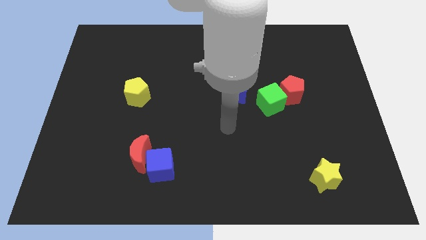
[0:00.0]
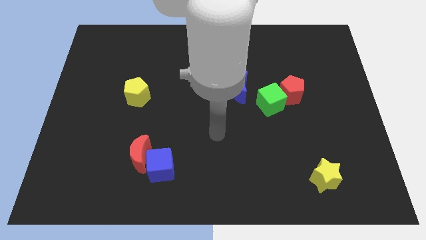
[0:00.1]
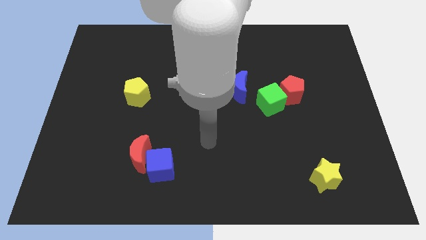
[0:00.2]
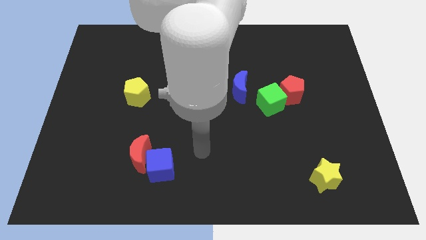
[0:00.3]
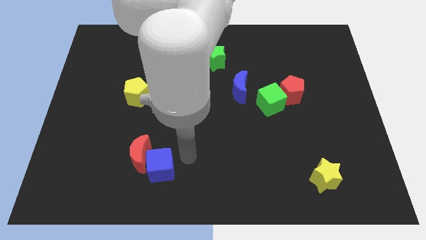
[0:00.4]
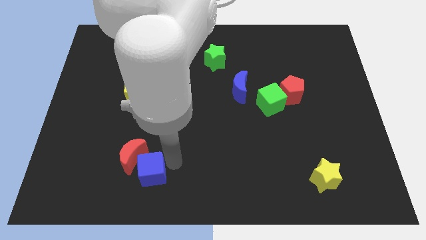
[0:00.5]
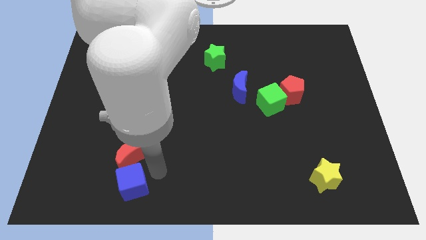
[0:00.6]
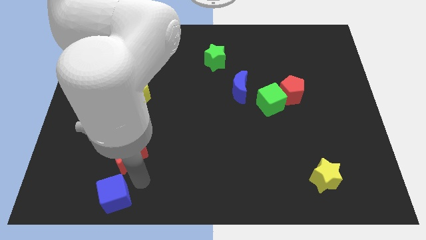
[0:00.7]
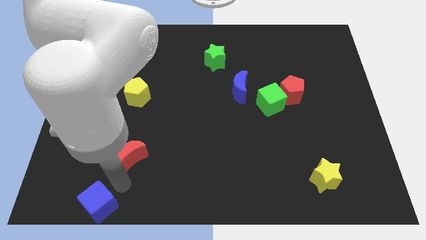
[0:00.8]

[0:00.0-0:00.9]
separate the red moon from the blue cube

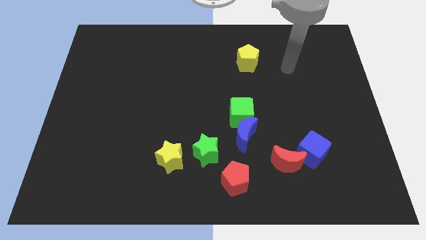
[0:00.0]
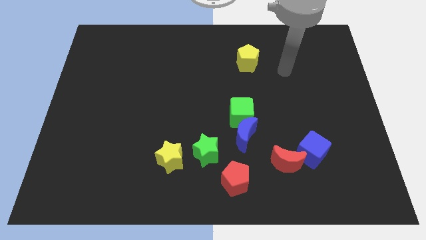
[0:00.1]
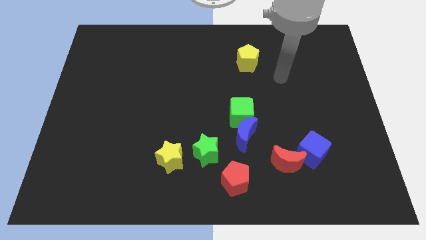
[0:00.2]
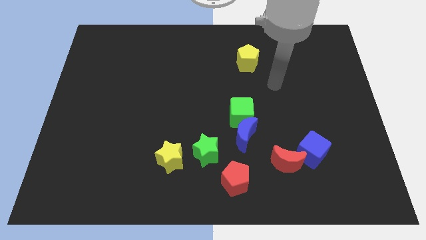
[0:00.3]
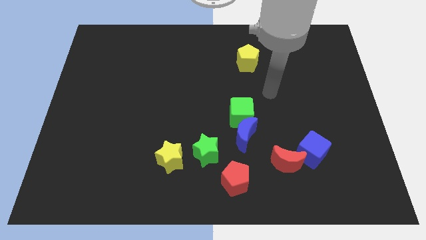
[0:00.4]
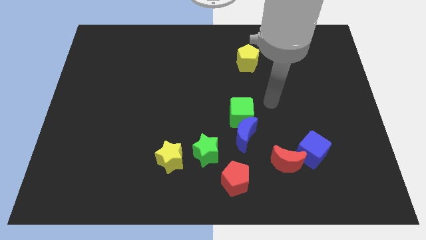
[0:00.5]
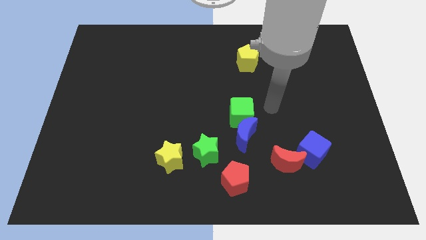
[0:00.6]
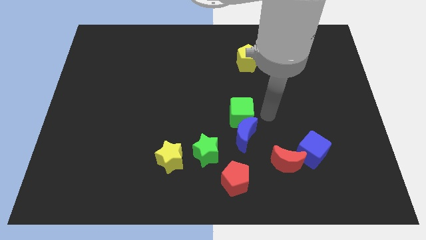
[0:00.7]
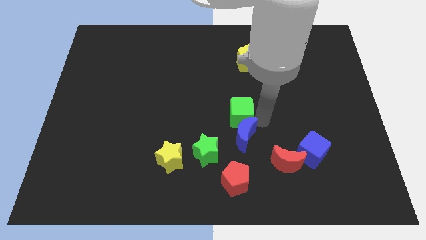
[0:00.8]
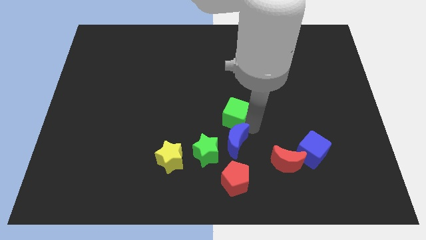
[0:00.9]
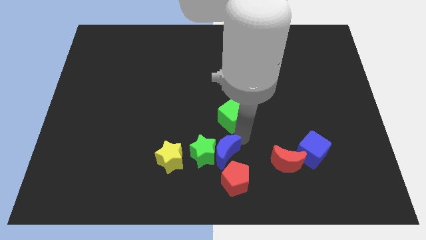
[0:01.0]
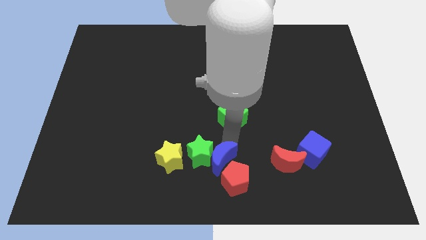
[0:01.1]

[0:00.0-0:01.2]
pull the green cube apart from the blue moon

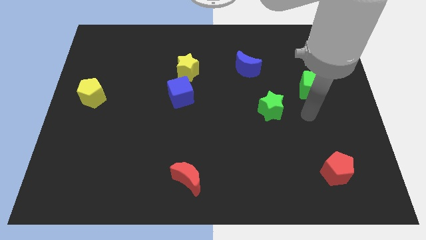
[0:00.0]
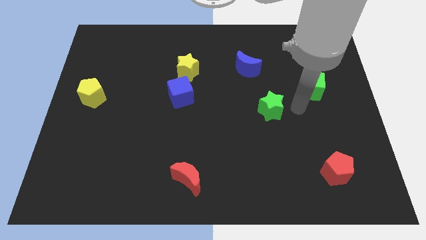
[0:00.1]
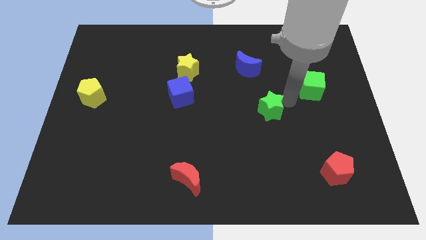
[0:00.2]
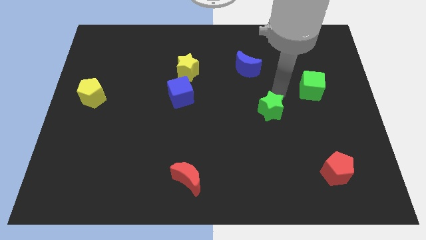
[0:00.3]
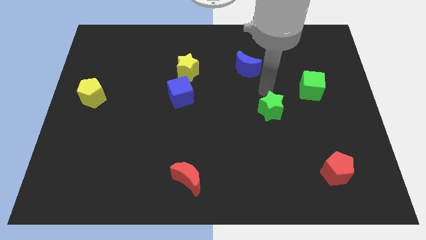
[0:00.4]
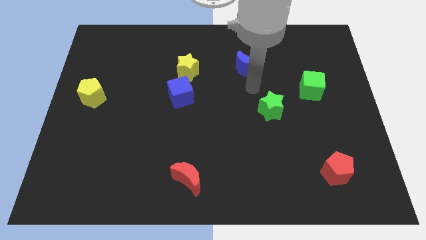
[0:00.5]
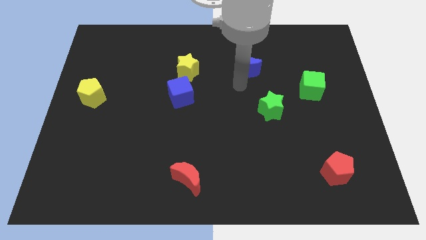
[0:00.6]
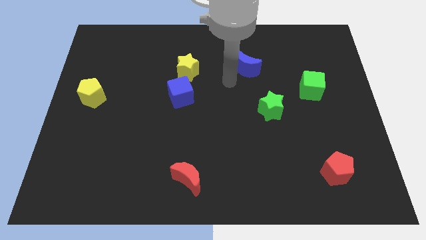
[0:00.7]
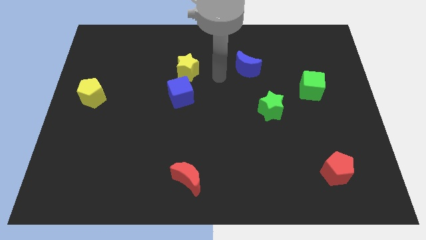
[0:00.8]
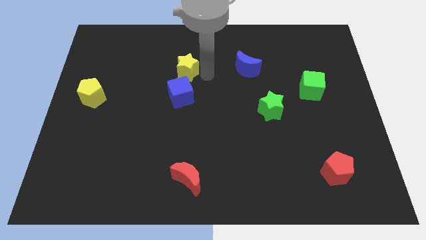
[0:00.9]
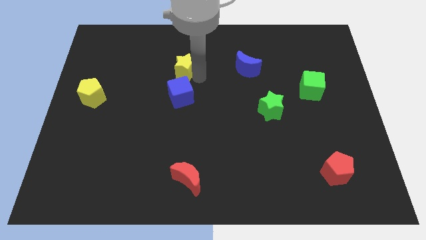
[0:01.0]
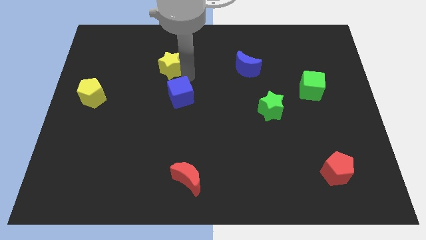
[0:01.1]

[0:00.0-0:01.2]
separate the blue cube from the yellow star

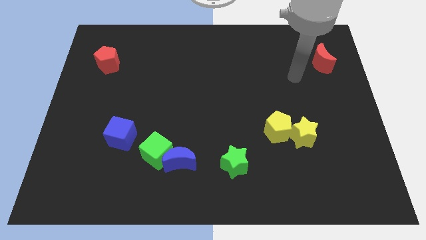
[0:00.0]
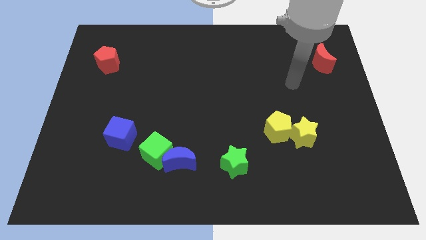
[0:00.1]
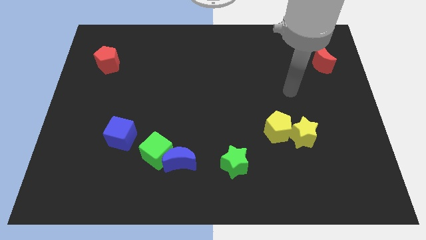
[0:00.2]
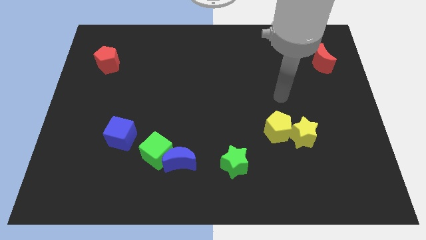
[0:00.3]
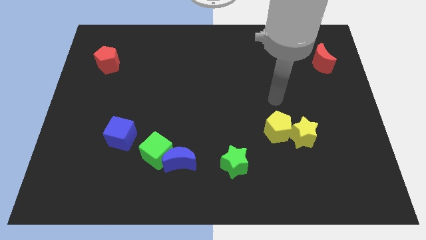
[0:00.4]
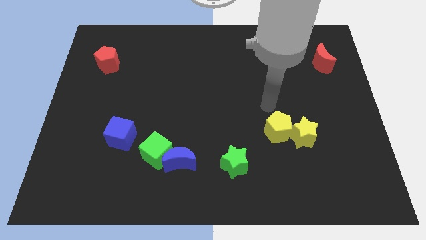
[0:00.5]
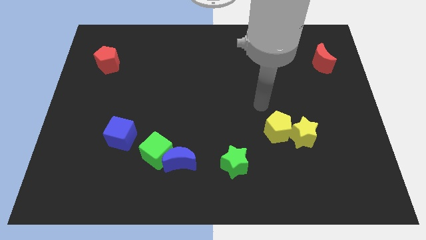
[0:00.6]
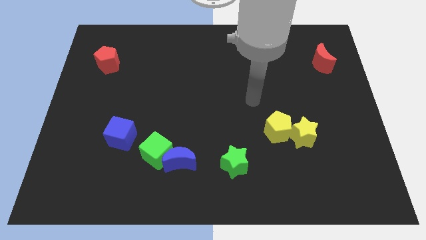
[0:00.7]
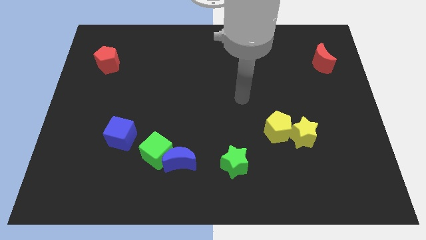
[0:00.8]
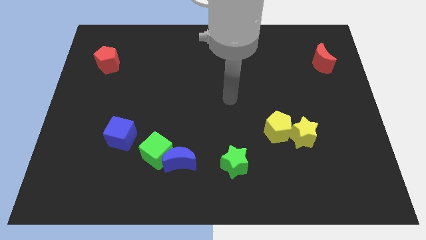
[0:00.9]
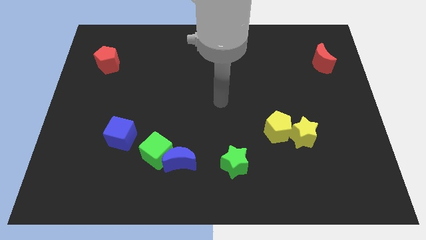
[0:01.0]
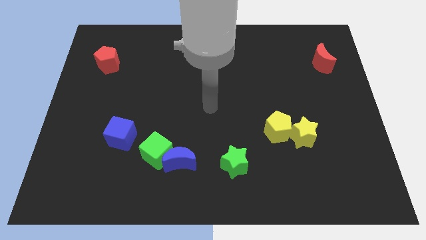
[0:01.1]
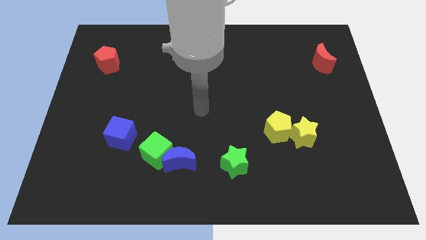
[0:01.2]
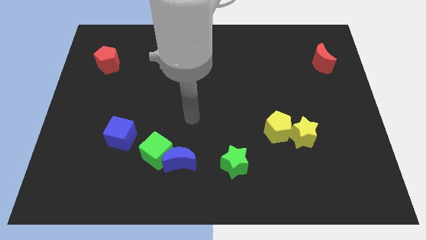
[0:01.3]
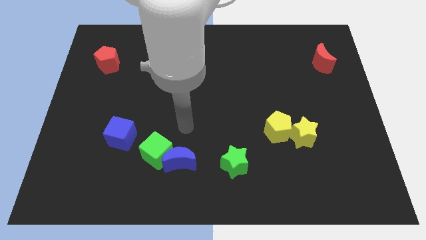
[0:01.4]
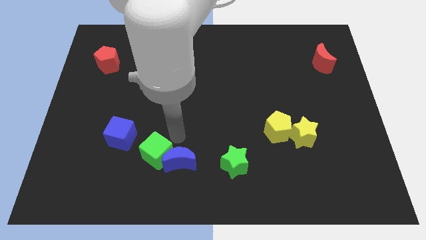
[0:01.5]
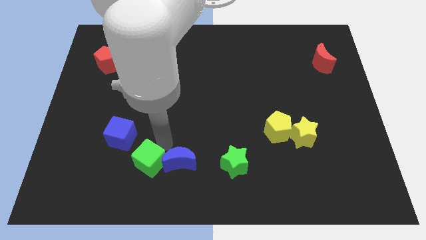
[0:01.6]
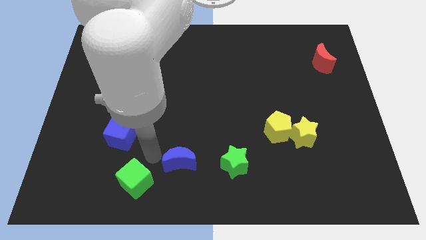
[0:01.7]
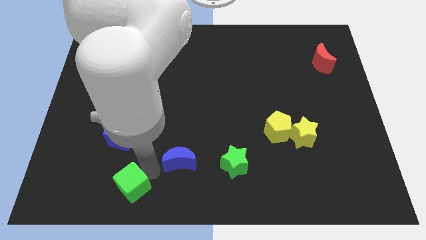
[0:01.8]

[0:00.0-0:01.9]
move the blue moon away from the green cube

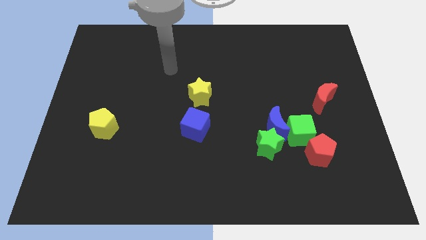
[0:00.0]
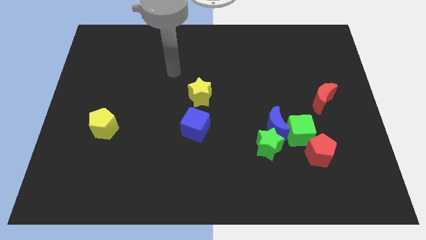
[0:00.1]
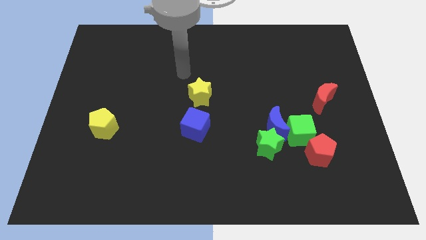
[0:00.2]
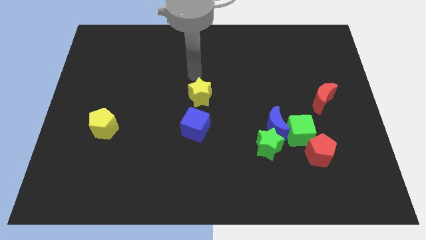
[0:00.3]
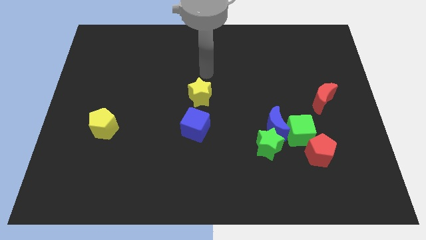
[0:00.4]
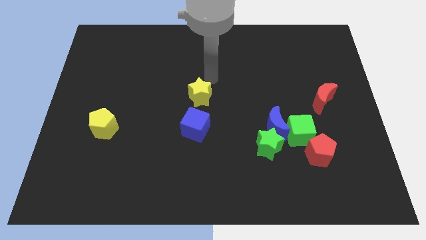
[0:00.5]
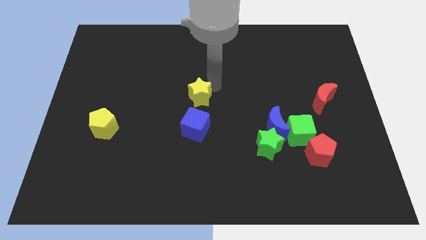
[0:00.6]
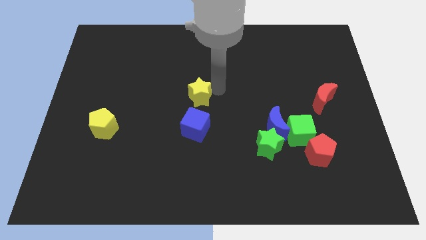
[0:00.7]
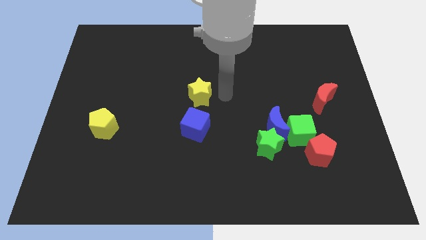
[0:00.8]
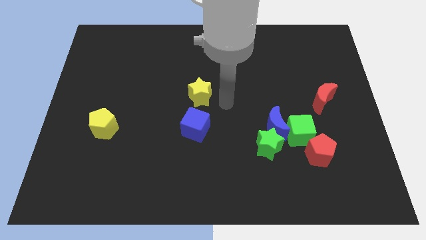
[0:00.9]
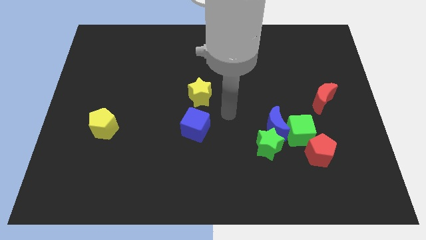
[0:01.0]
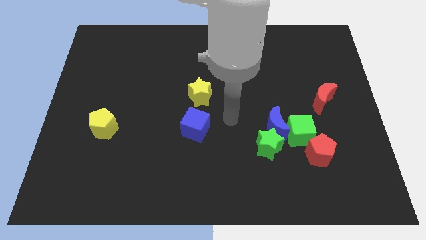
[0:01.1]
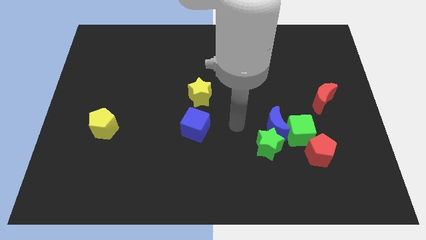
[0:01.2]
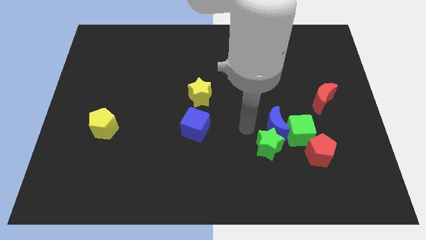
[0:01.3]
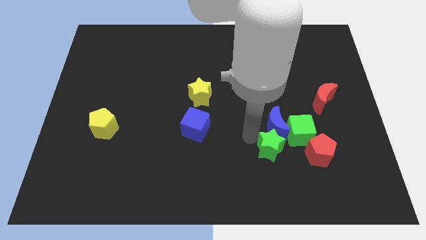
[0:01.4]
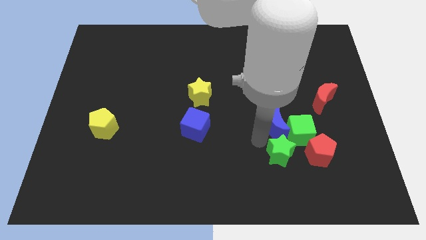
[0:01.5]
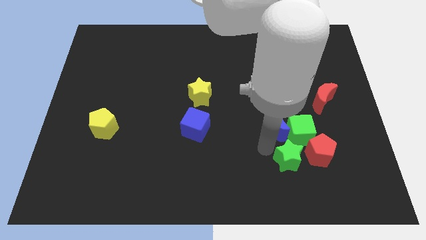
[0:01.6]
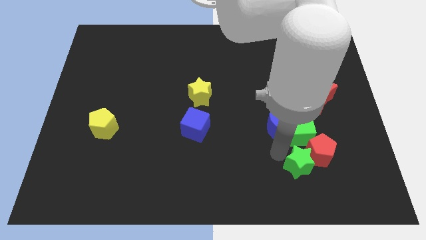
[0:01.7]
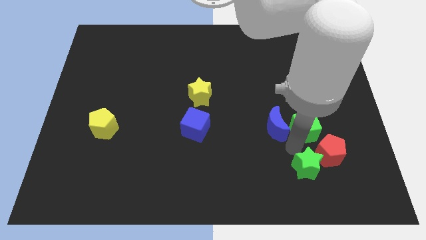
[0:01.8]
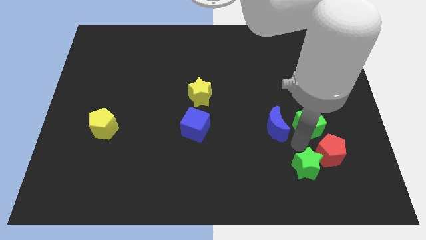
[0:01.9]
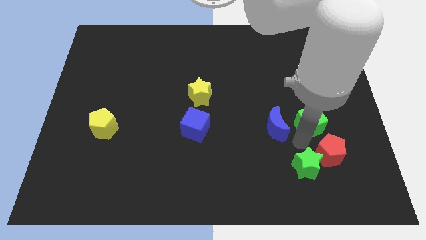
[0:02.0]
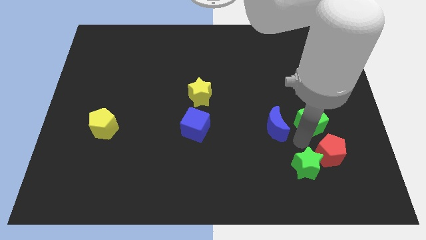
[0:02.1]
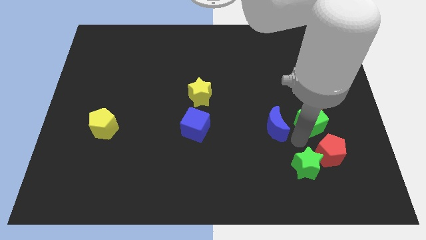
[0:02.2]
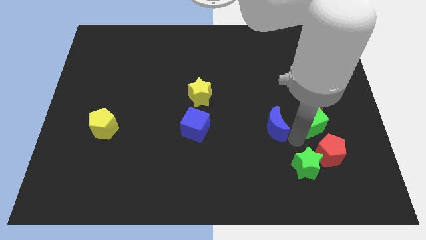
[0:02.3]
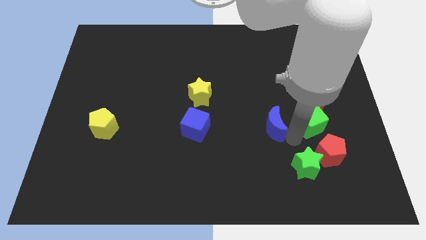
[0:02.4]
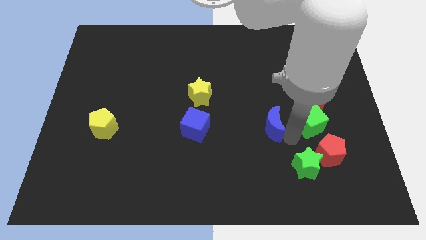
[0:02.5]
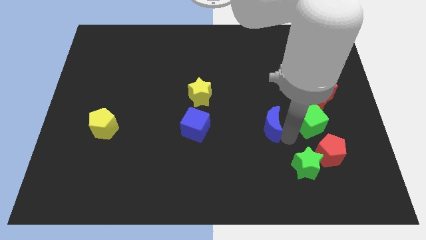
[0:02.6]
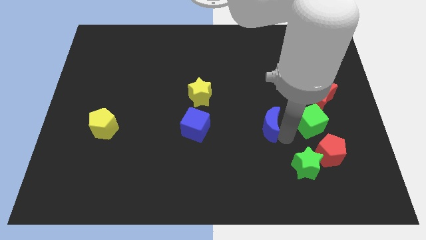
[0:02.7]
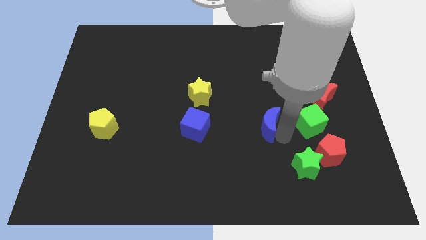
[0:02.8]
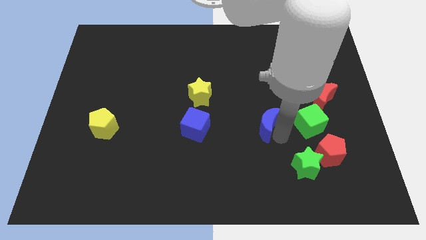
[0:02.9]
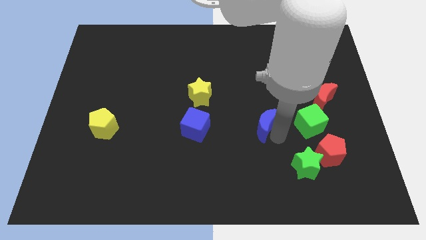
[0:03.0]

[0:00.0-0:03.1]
pull the blue moon apart from the green star and green cube

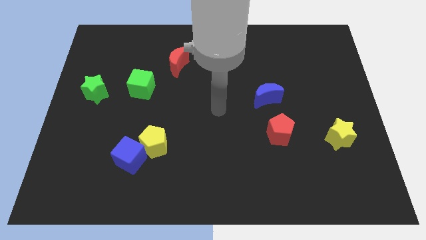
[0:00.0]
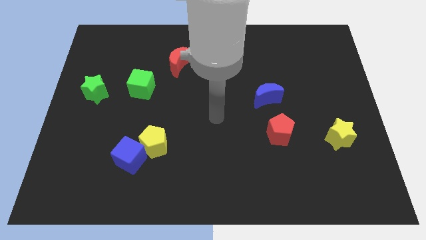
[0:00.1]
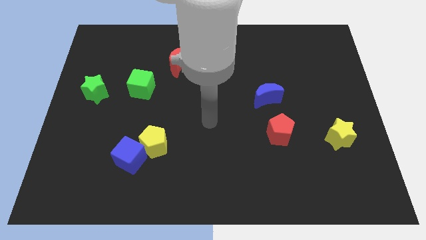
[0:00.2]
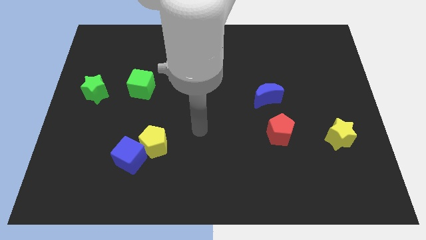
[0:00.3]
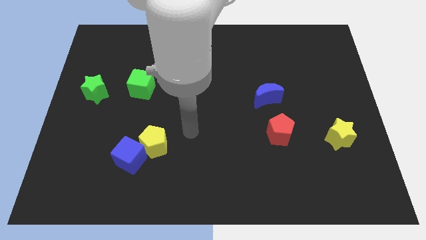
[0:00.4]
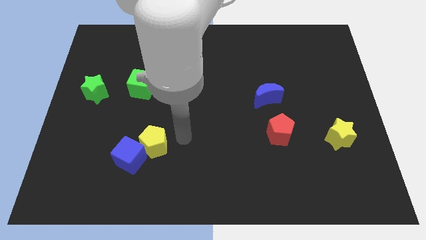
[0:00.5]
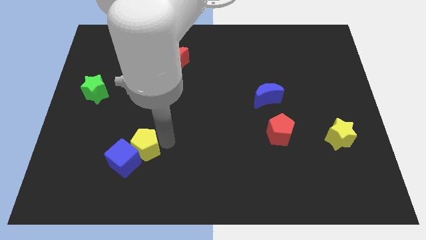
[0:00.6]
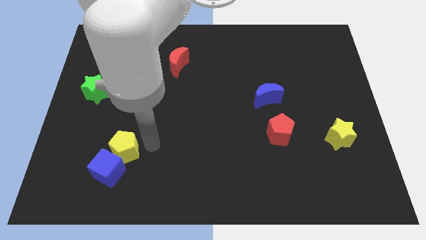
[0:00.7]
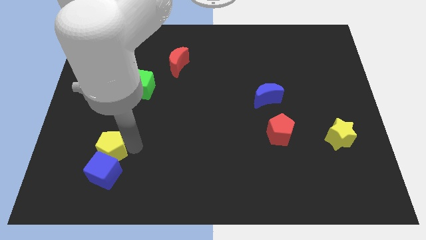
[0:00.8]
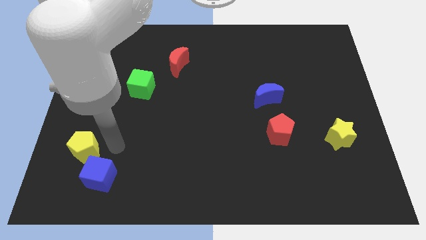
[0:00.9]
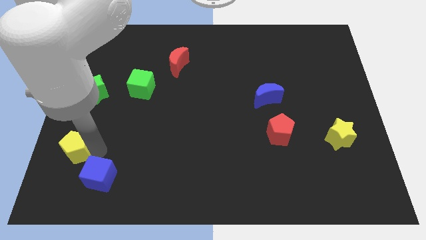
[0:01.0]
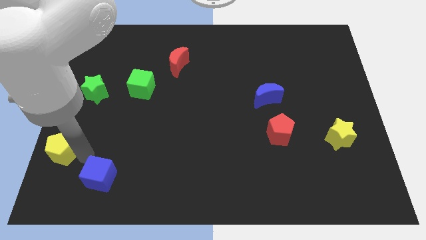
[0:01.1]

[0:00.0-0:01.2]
move the blue cube away from the yellow pentagon
